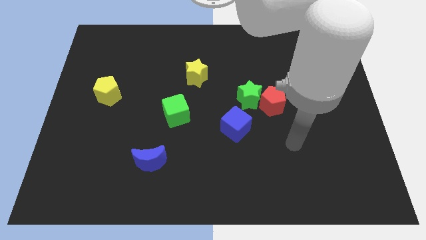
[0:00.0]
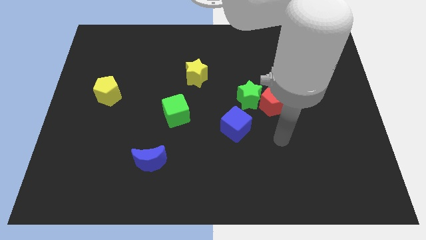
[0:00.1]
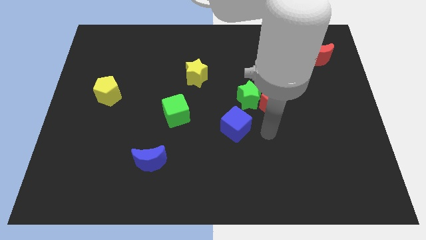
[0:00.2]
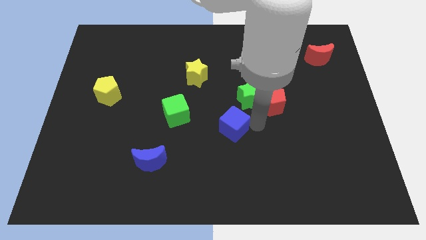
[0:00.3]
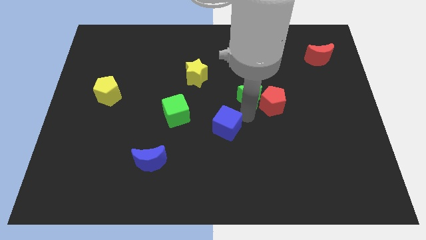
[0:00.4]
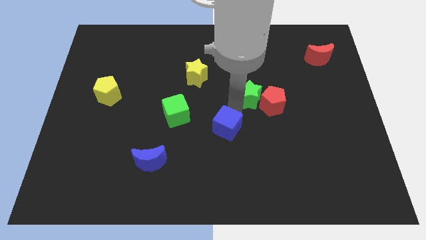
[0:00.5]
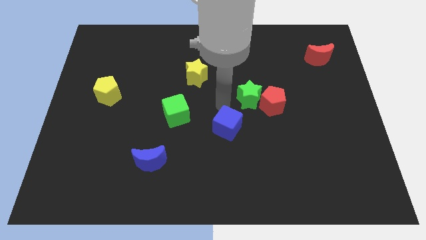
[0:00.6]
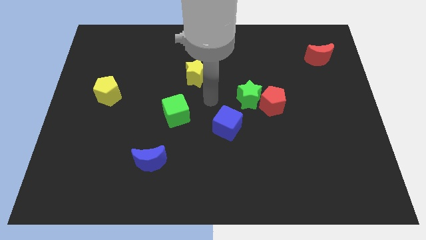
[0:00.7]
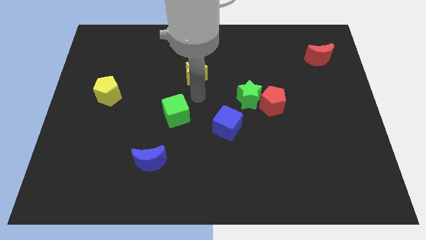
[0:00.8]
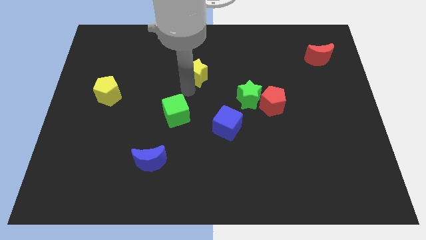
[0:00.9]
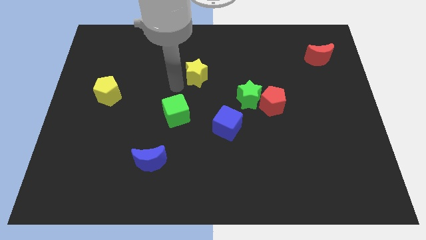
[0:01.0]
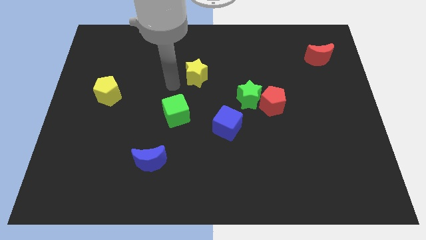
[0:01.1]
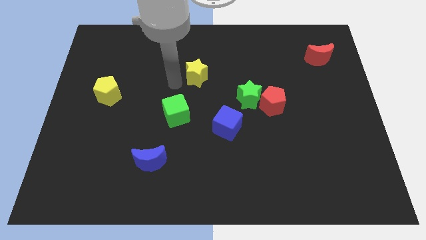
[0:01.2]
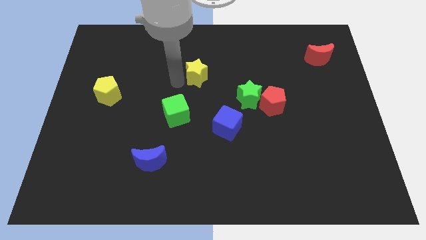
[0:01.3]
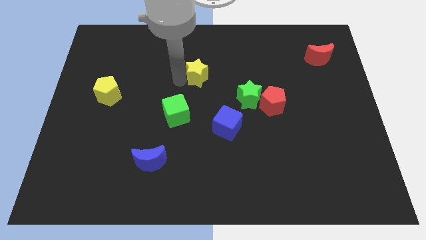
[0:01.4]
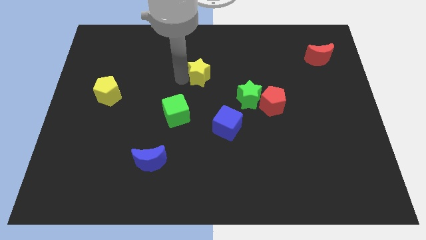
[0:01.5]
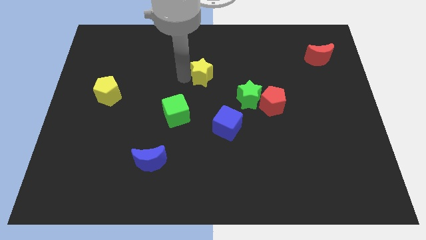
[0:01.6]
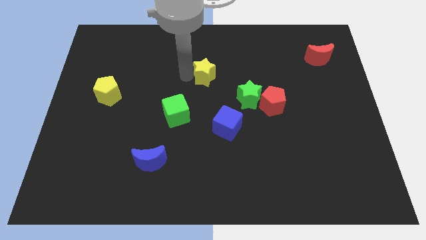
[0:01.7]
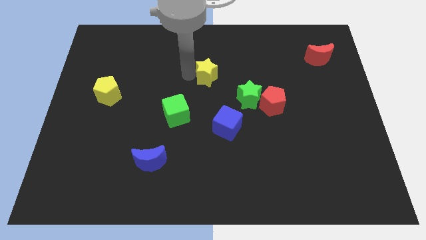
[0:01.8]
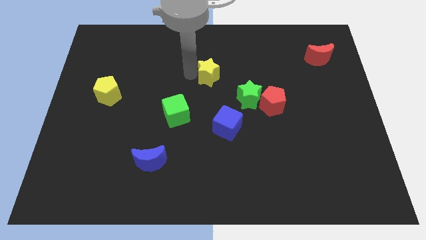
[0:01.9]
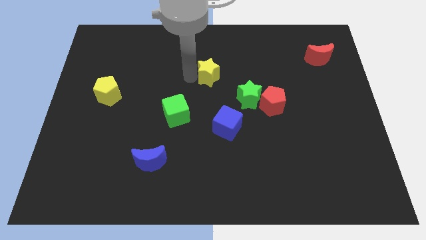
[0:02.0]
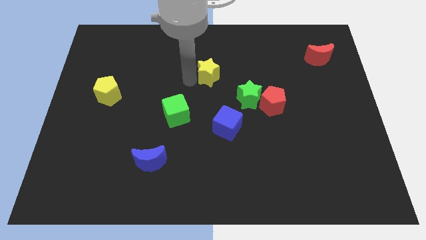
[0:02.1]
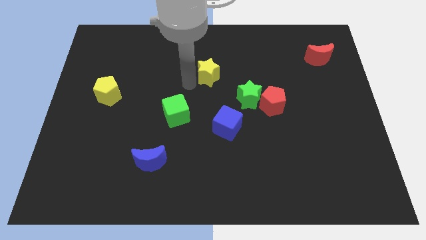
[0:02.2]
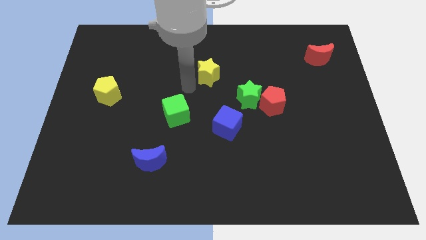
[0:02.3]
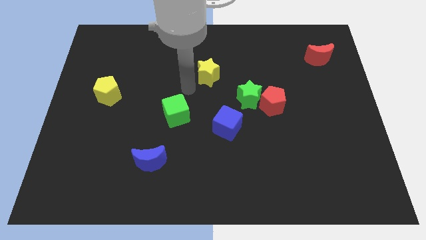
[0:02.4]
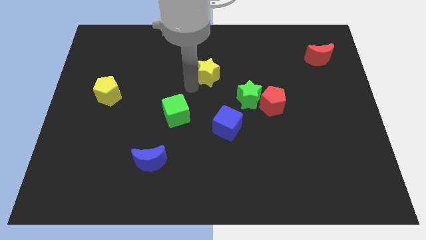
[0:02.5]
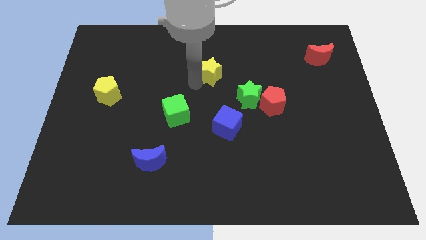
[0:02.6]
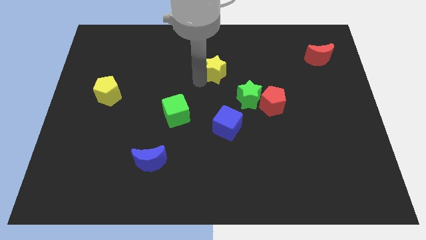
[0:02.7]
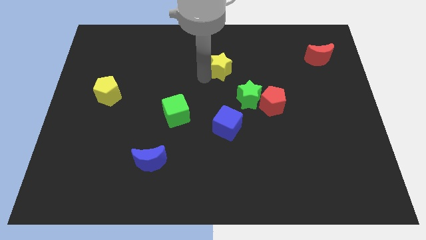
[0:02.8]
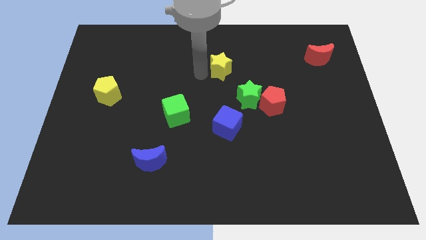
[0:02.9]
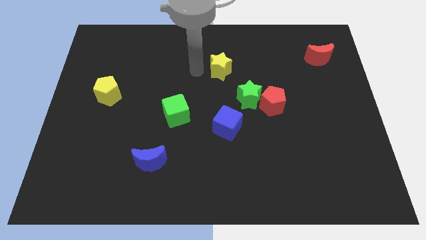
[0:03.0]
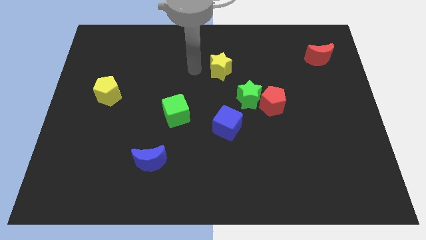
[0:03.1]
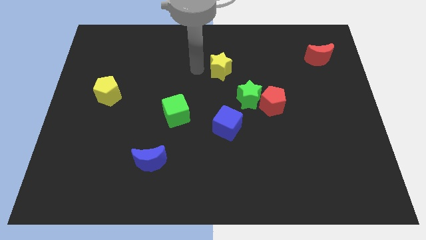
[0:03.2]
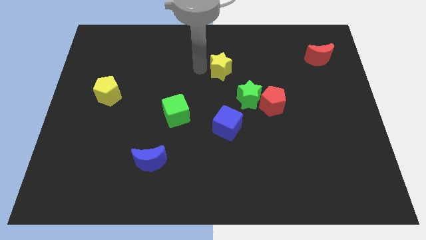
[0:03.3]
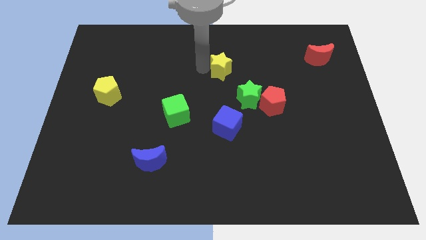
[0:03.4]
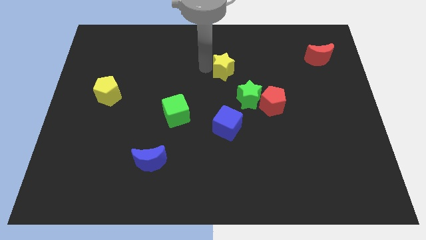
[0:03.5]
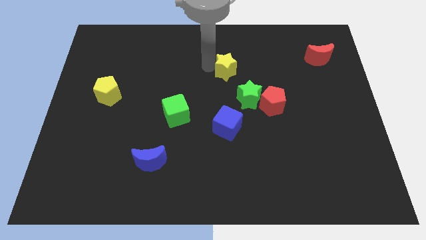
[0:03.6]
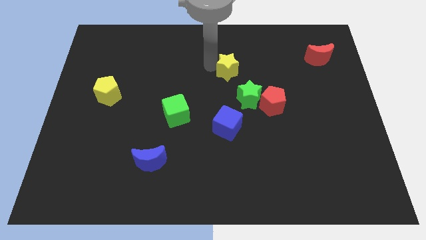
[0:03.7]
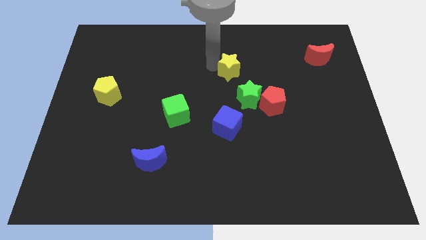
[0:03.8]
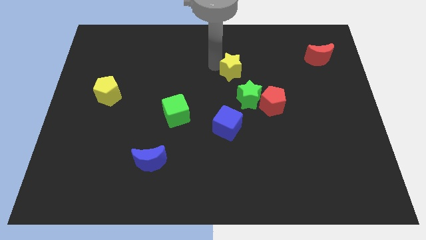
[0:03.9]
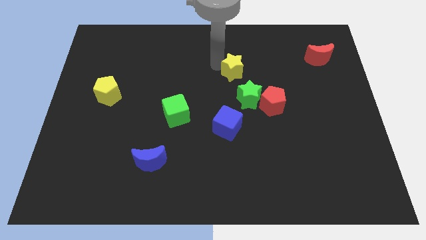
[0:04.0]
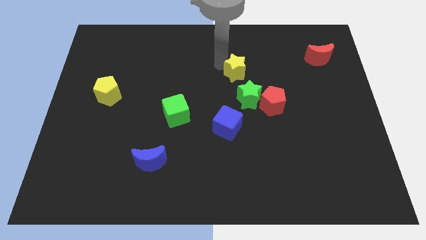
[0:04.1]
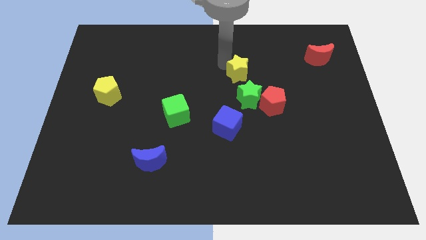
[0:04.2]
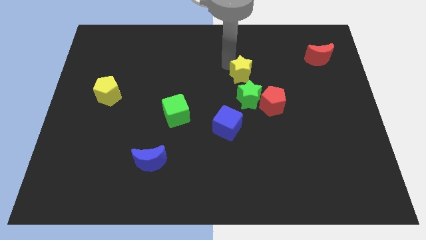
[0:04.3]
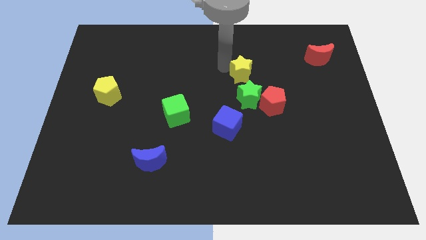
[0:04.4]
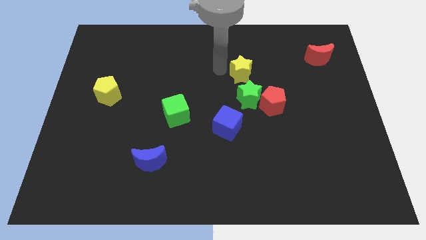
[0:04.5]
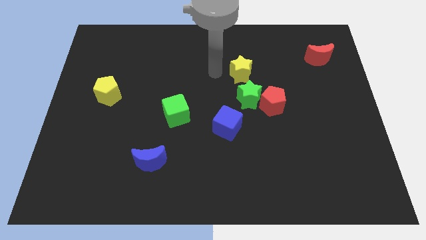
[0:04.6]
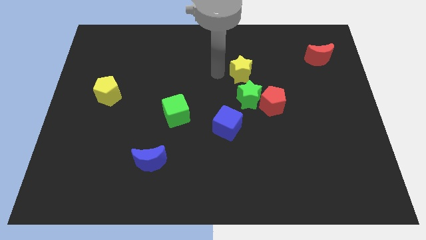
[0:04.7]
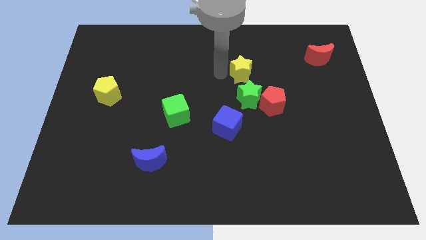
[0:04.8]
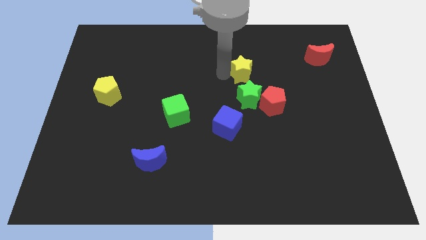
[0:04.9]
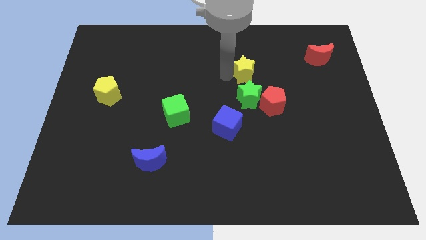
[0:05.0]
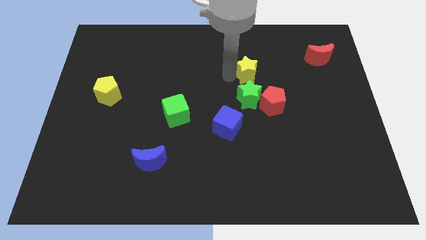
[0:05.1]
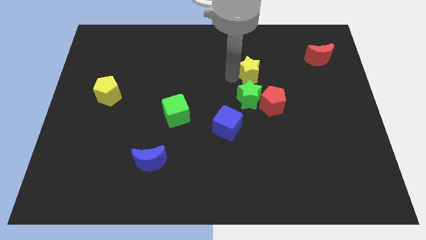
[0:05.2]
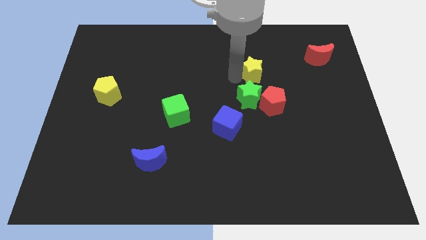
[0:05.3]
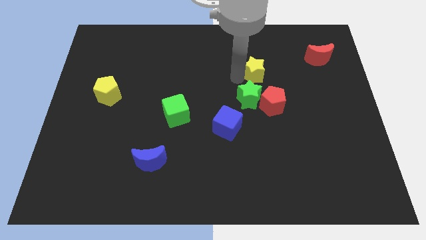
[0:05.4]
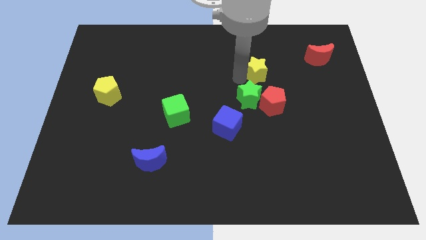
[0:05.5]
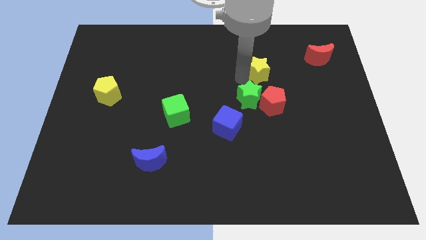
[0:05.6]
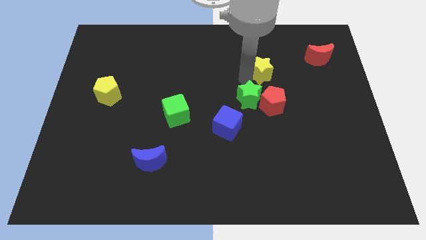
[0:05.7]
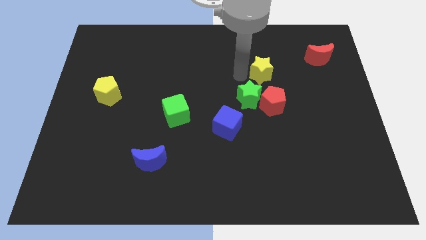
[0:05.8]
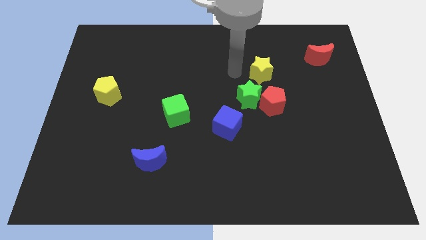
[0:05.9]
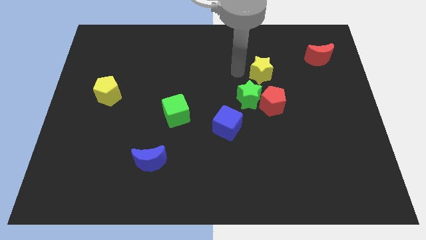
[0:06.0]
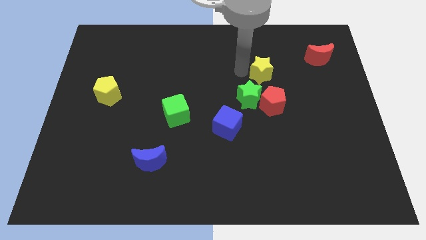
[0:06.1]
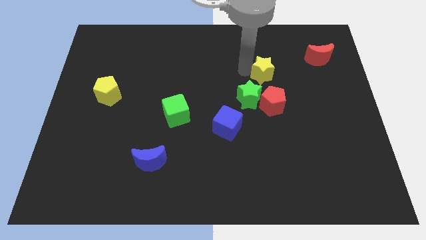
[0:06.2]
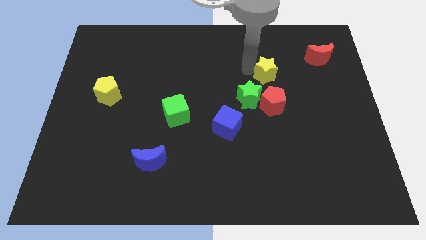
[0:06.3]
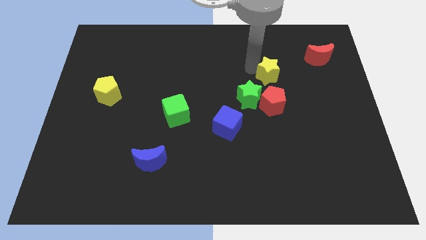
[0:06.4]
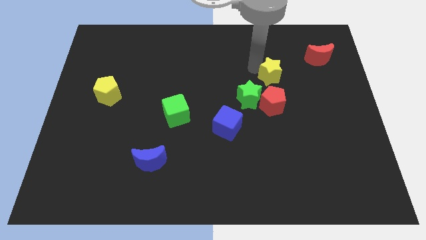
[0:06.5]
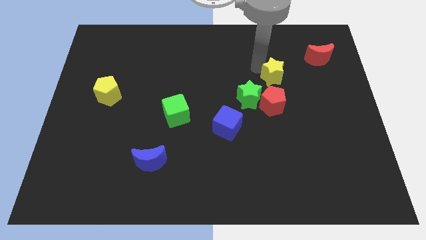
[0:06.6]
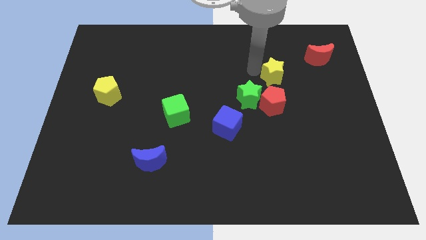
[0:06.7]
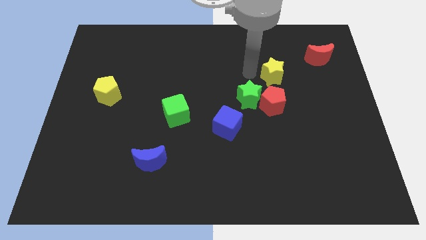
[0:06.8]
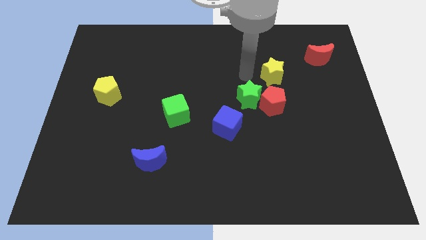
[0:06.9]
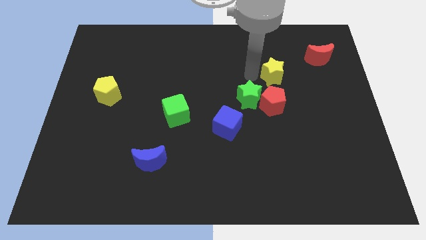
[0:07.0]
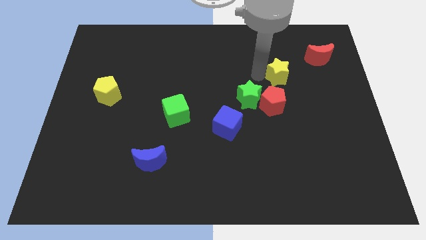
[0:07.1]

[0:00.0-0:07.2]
push the yellow star right

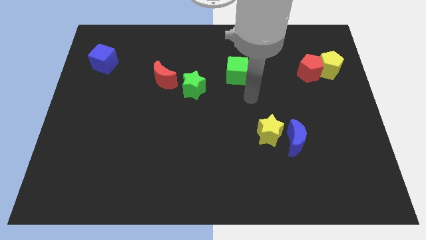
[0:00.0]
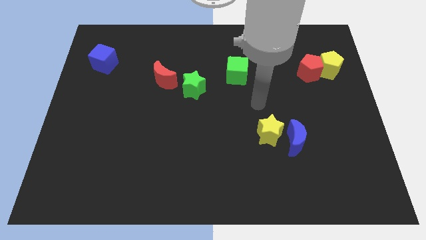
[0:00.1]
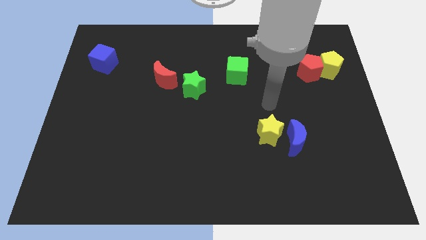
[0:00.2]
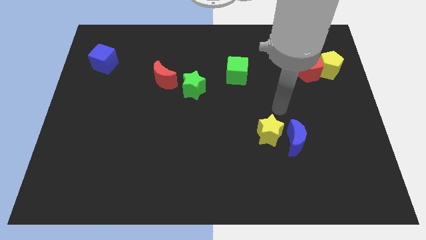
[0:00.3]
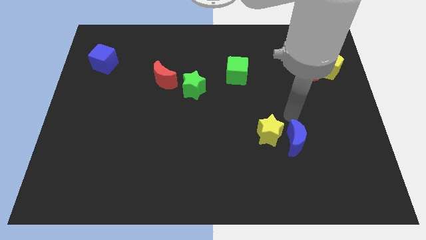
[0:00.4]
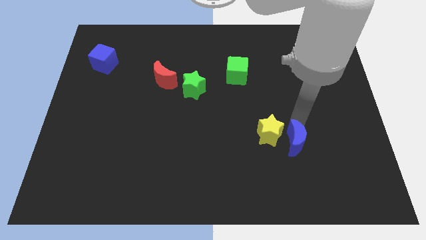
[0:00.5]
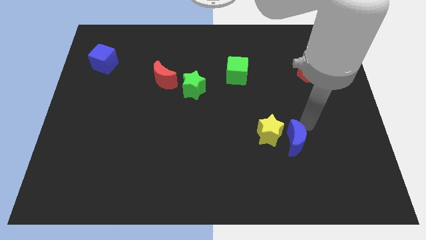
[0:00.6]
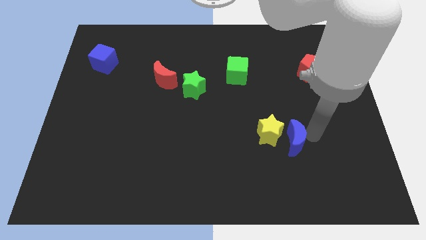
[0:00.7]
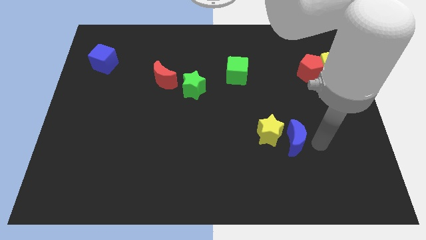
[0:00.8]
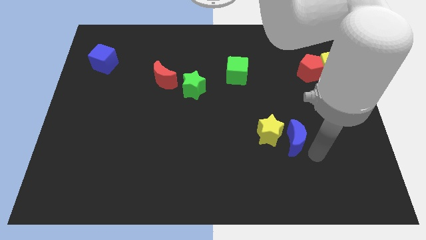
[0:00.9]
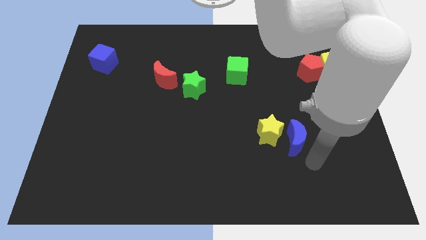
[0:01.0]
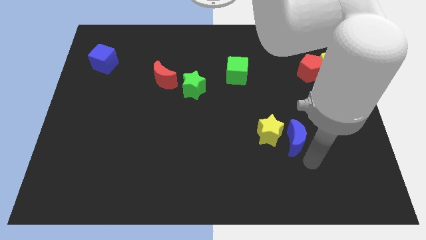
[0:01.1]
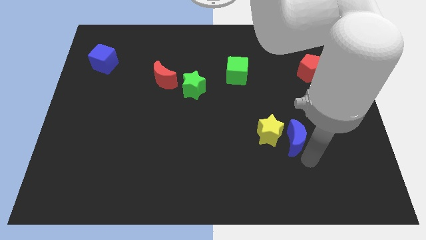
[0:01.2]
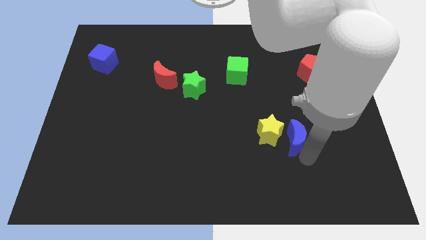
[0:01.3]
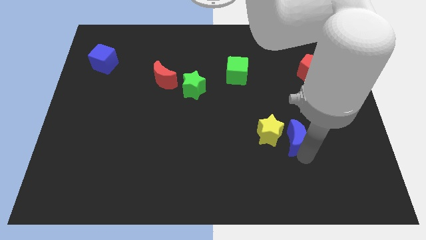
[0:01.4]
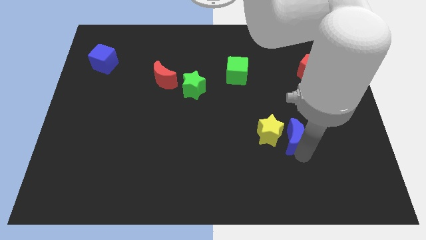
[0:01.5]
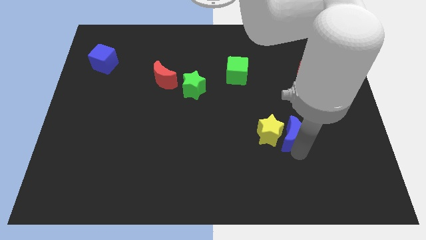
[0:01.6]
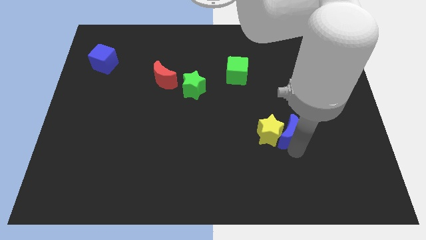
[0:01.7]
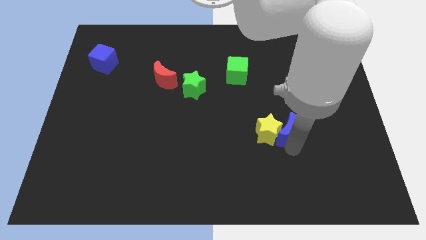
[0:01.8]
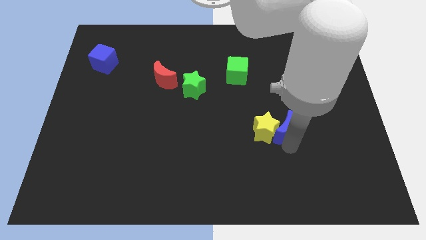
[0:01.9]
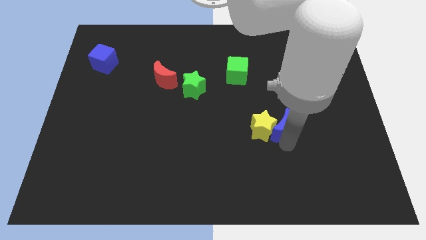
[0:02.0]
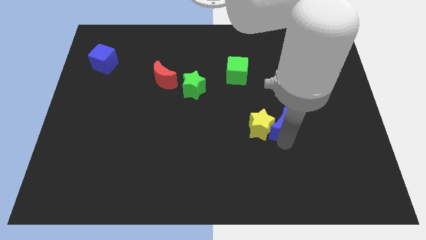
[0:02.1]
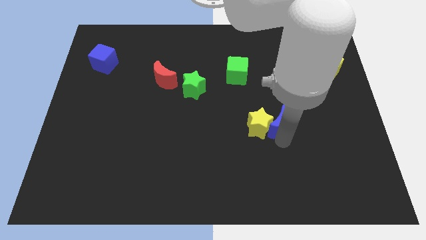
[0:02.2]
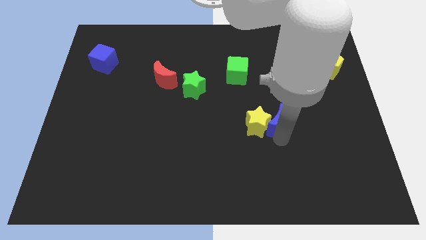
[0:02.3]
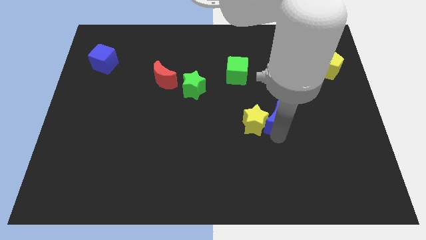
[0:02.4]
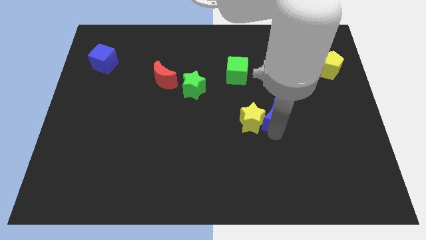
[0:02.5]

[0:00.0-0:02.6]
move the blue moon upwards and then to the left somewhat
